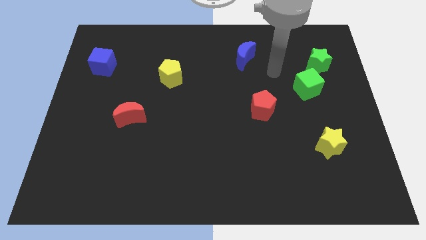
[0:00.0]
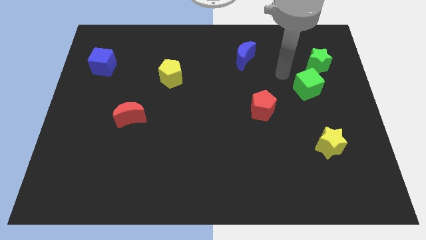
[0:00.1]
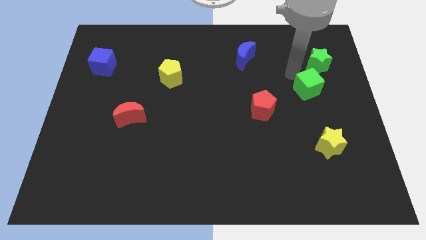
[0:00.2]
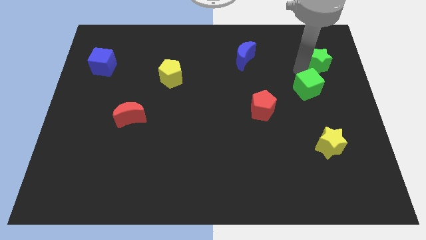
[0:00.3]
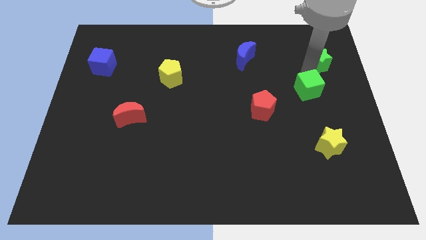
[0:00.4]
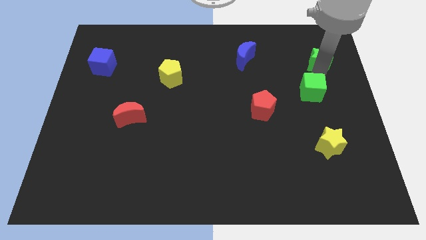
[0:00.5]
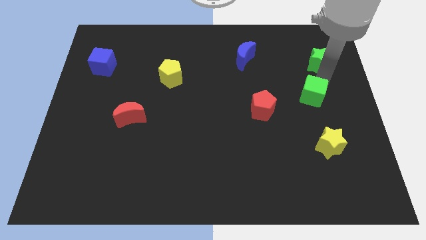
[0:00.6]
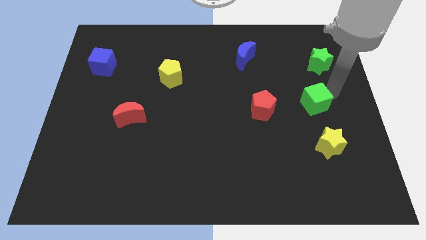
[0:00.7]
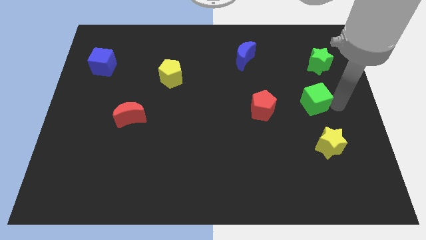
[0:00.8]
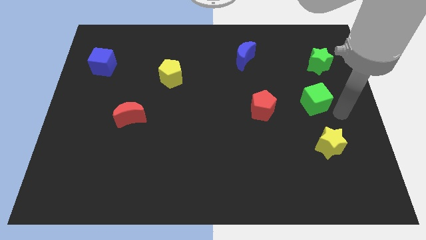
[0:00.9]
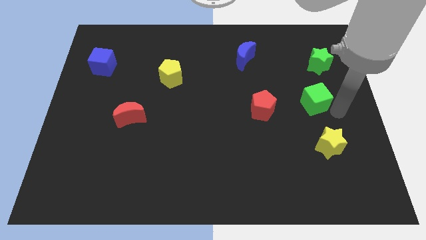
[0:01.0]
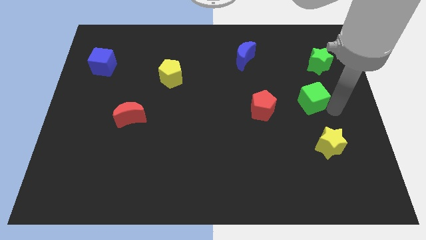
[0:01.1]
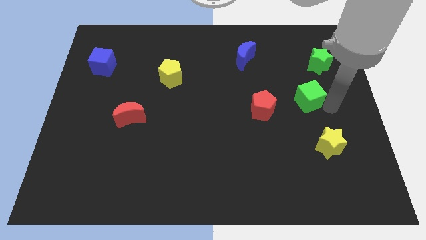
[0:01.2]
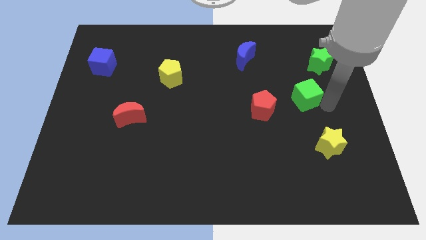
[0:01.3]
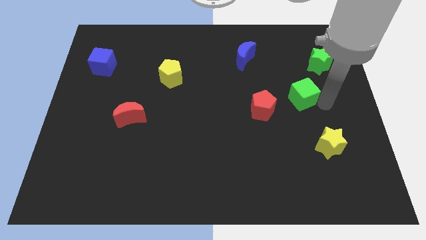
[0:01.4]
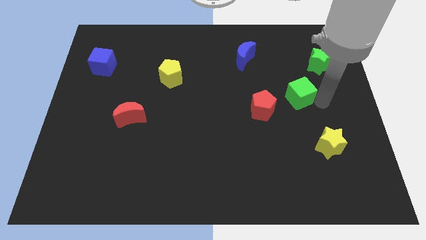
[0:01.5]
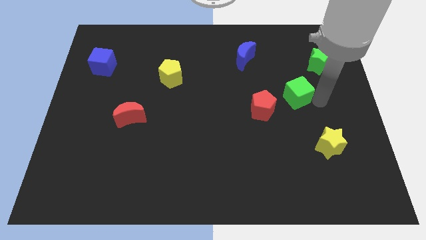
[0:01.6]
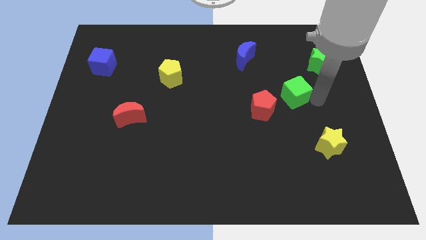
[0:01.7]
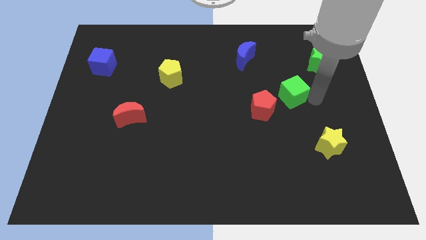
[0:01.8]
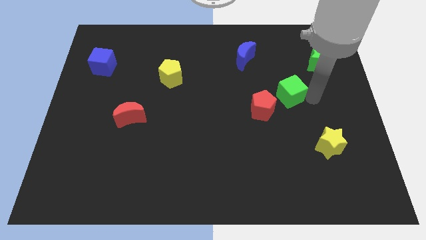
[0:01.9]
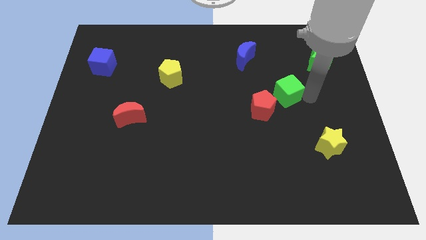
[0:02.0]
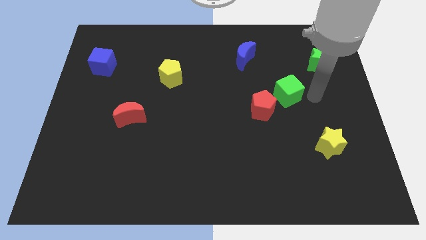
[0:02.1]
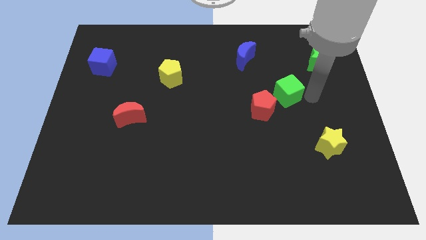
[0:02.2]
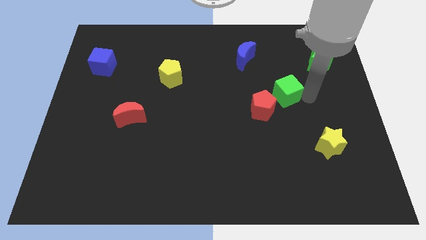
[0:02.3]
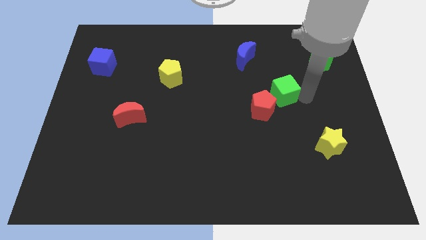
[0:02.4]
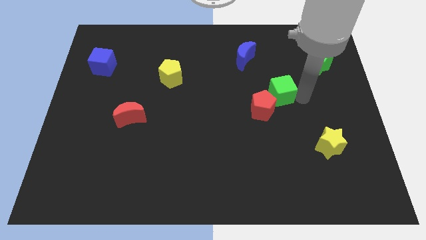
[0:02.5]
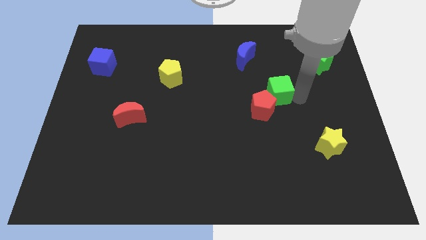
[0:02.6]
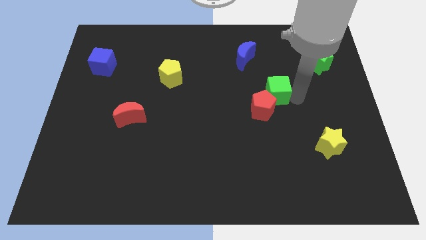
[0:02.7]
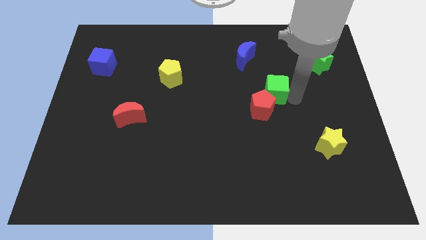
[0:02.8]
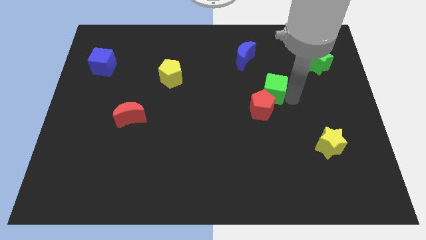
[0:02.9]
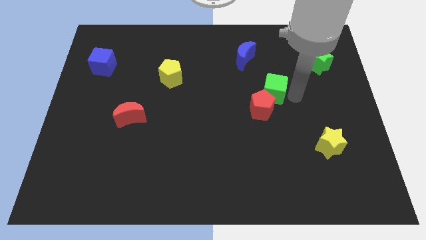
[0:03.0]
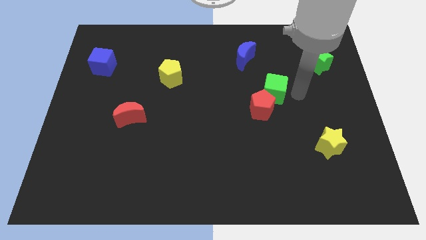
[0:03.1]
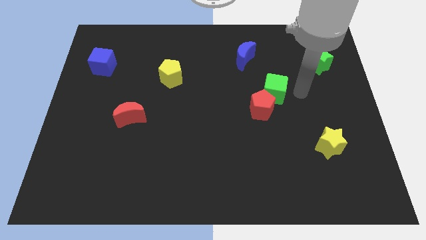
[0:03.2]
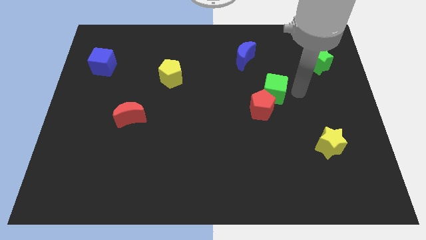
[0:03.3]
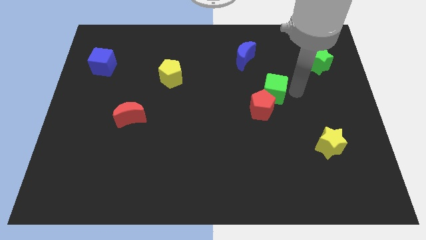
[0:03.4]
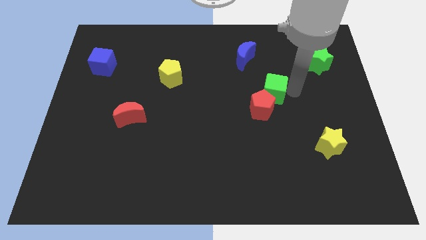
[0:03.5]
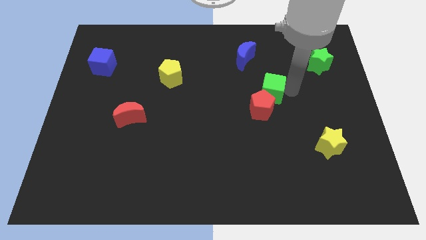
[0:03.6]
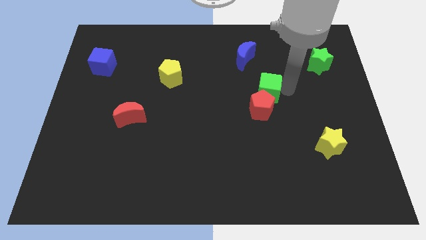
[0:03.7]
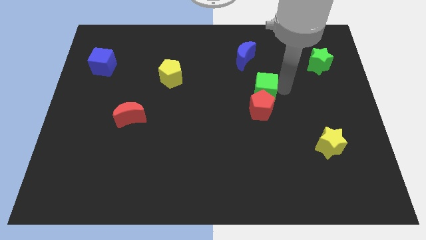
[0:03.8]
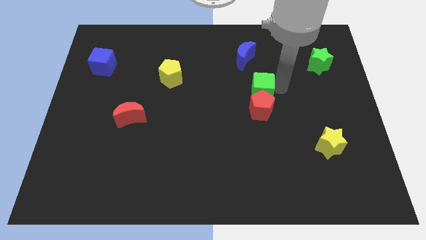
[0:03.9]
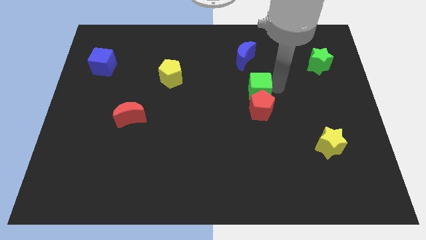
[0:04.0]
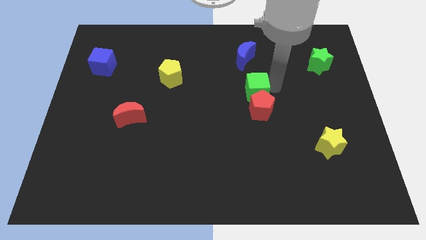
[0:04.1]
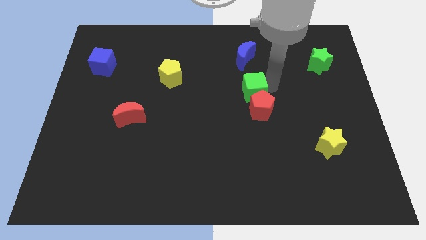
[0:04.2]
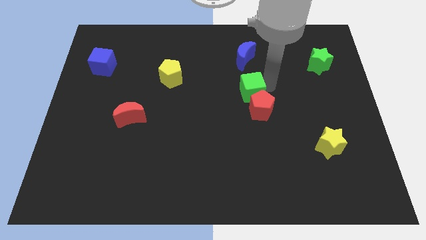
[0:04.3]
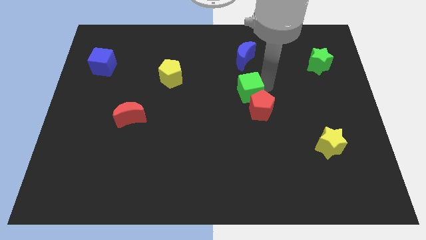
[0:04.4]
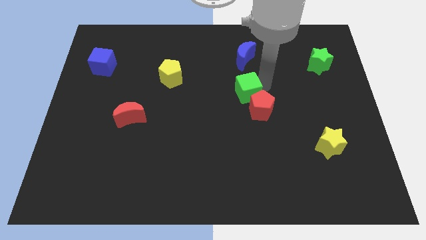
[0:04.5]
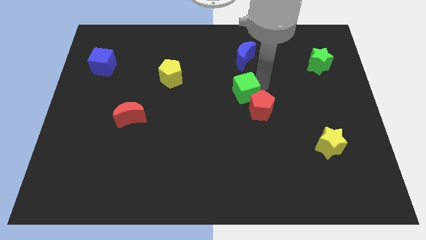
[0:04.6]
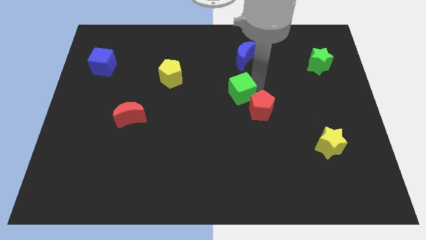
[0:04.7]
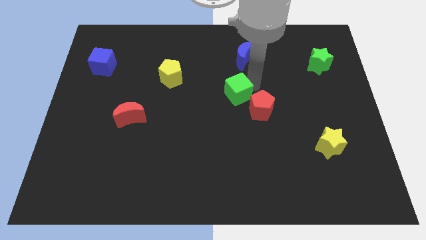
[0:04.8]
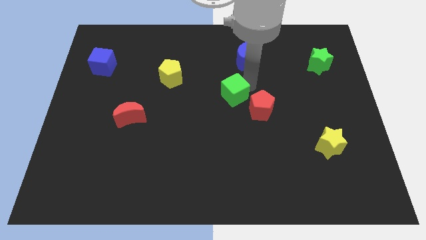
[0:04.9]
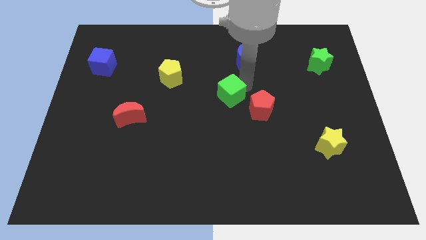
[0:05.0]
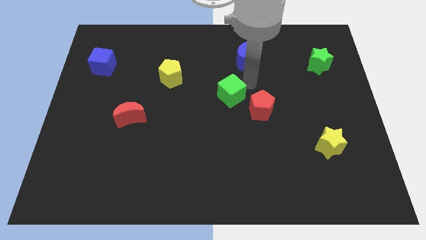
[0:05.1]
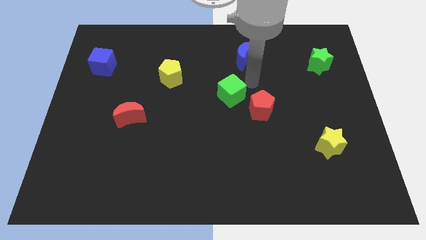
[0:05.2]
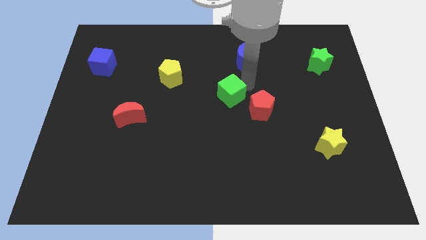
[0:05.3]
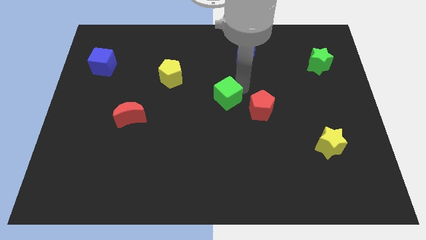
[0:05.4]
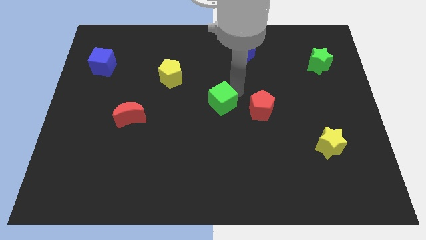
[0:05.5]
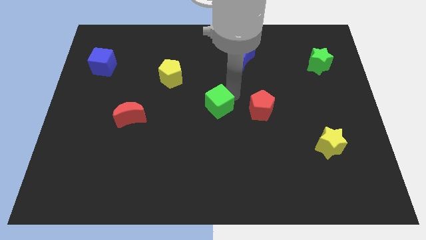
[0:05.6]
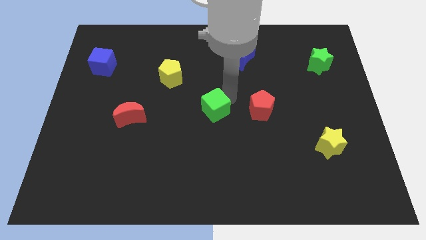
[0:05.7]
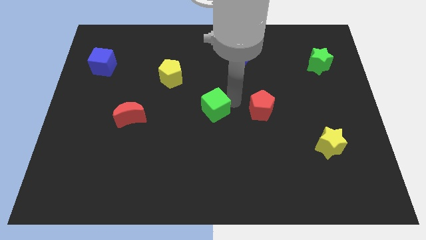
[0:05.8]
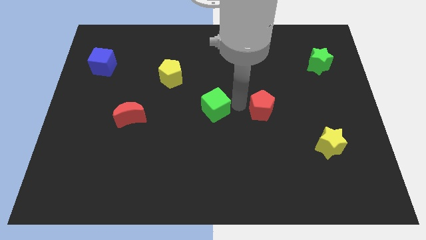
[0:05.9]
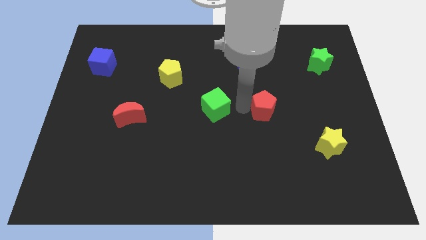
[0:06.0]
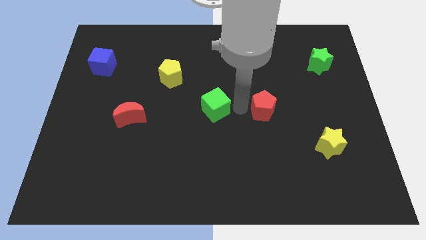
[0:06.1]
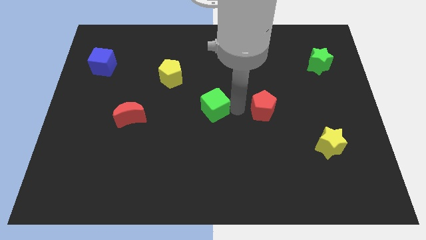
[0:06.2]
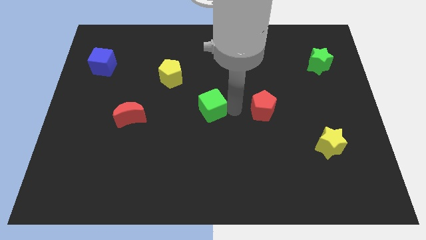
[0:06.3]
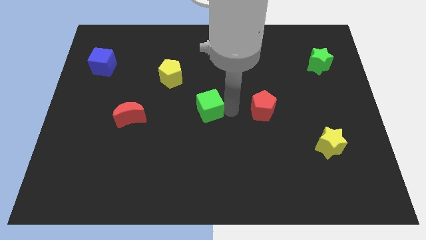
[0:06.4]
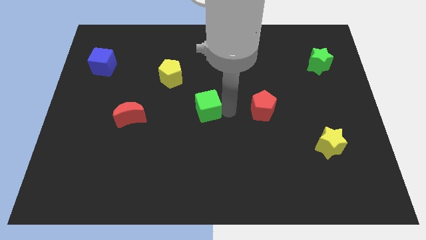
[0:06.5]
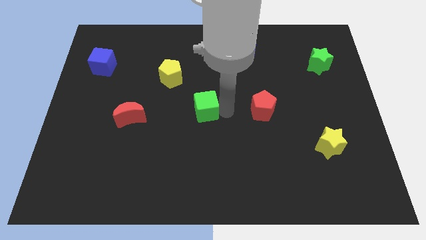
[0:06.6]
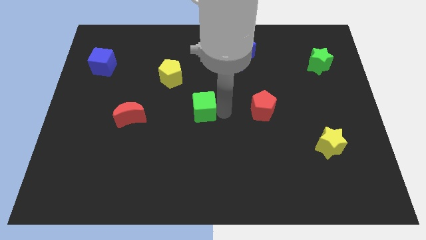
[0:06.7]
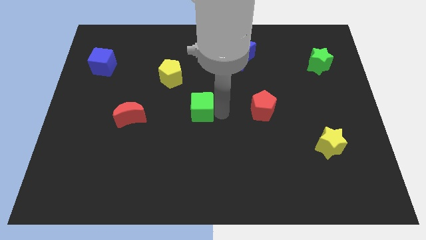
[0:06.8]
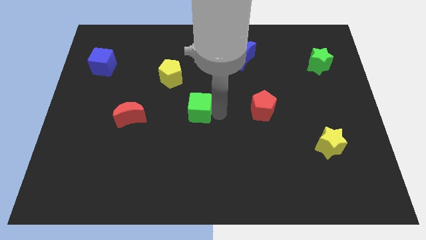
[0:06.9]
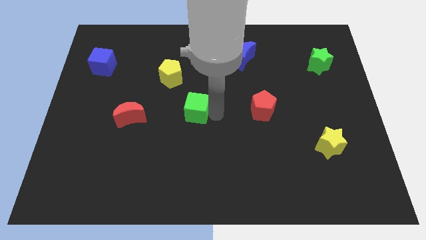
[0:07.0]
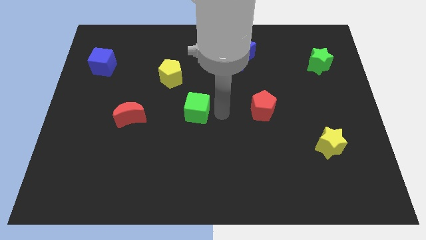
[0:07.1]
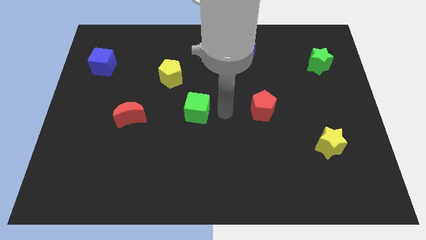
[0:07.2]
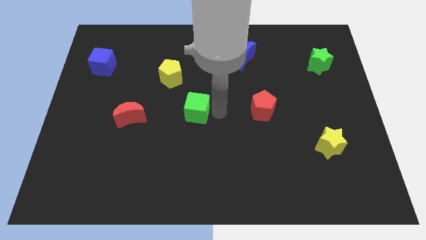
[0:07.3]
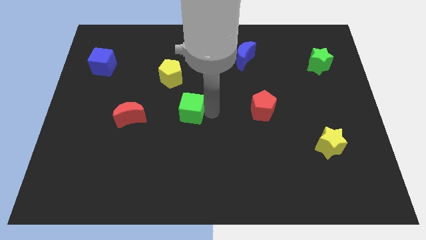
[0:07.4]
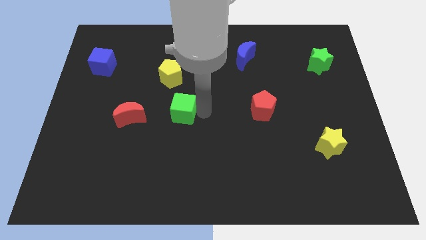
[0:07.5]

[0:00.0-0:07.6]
move the green cube to the bottom of the yellow pentagon
